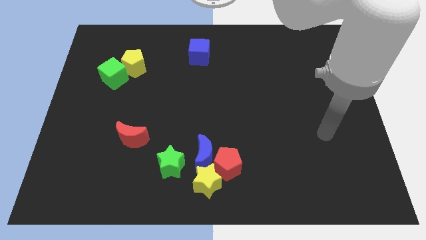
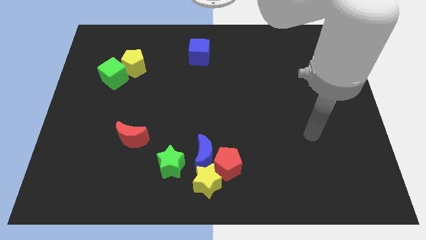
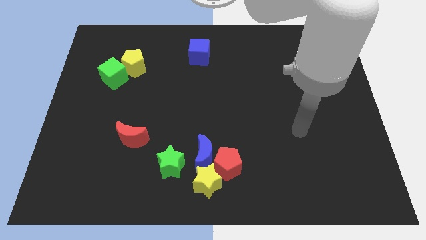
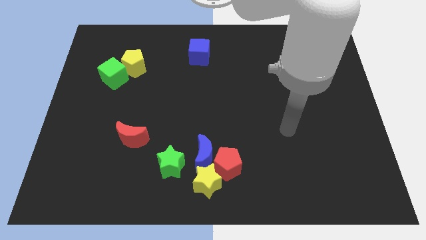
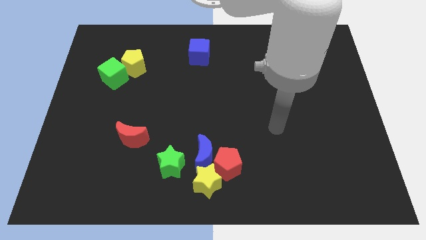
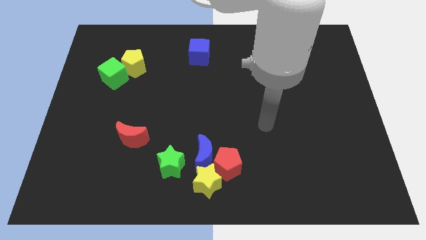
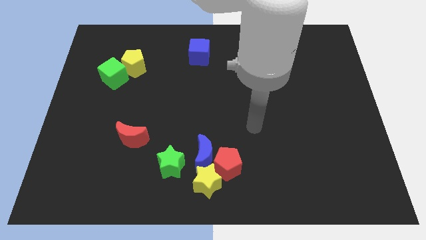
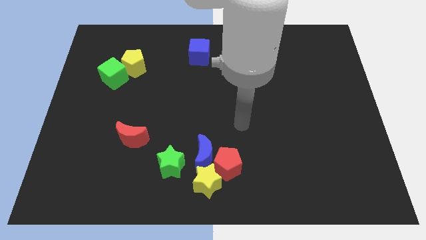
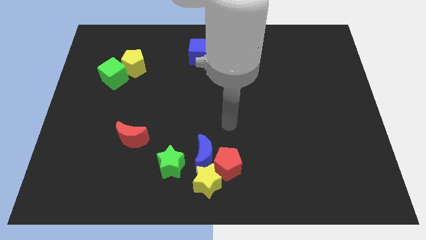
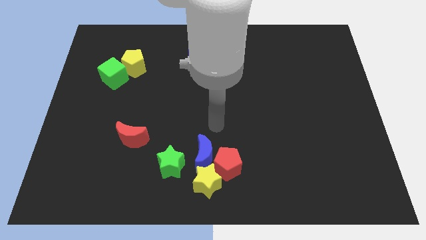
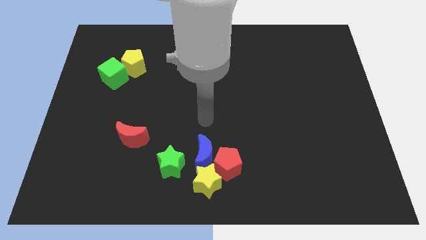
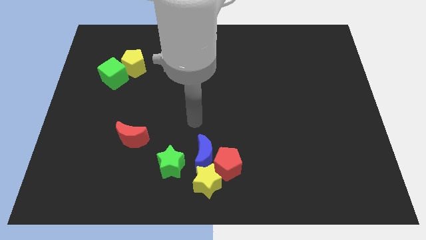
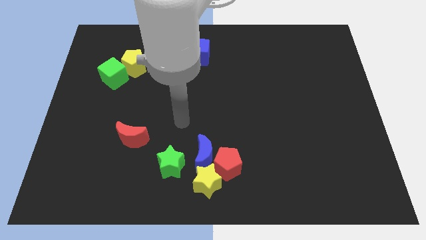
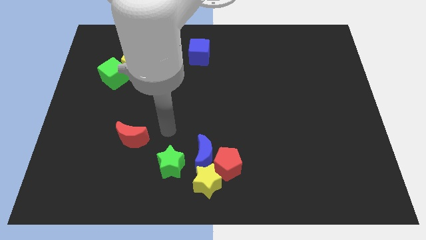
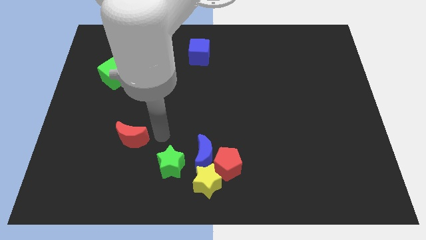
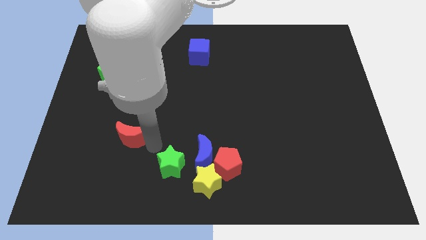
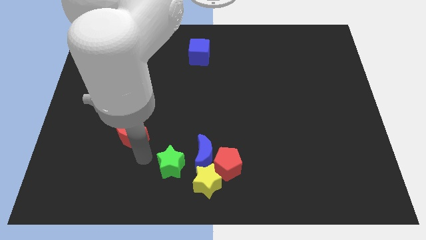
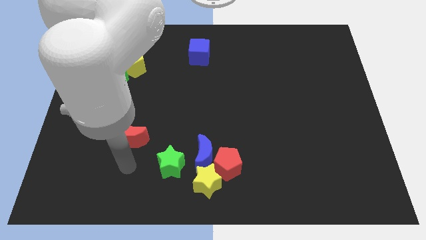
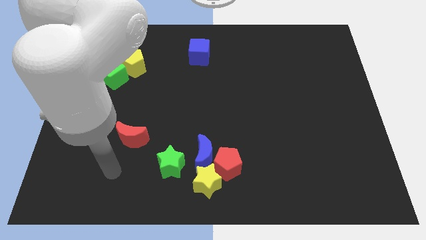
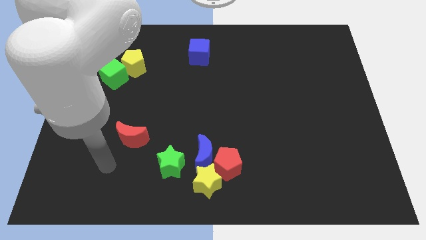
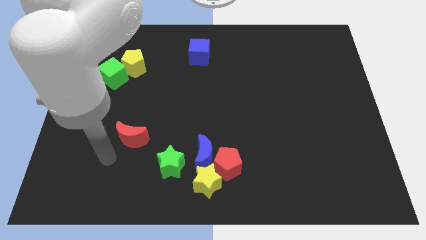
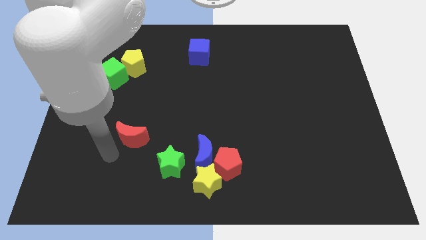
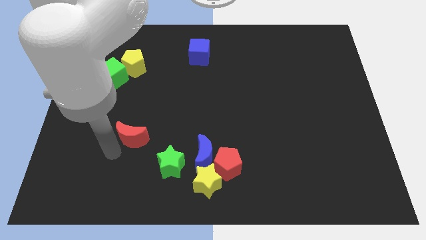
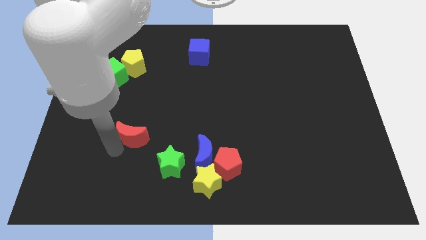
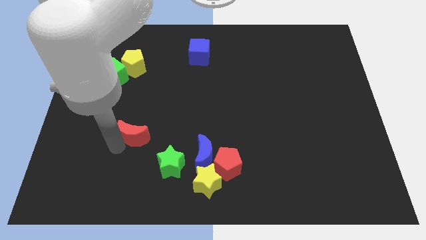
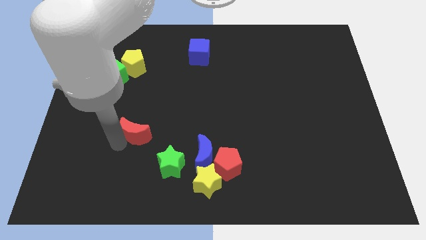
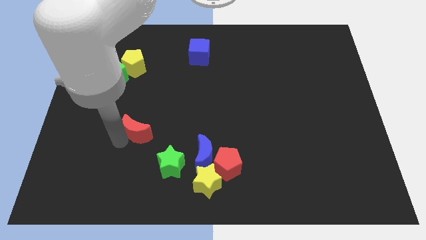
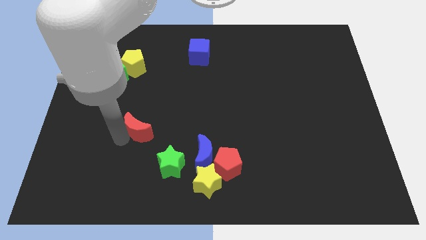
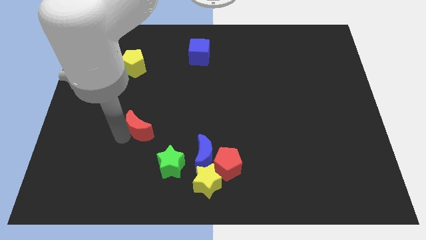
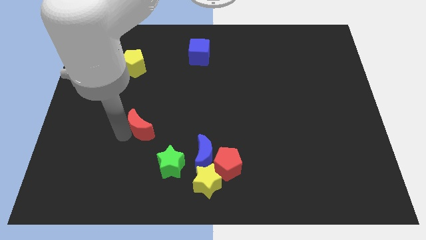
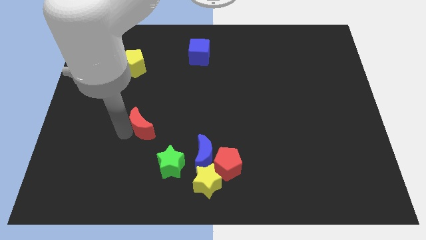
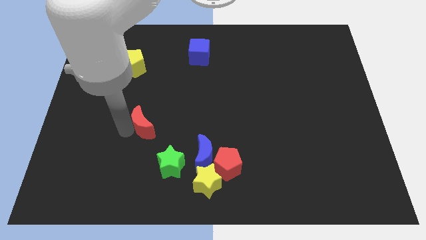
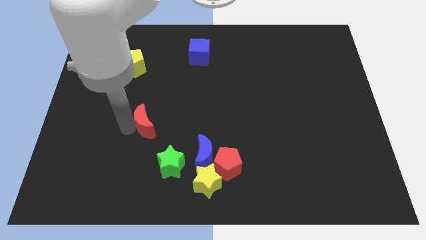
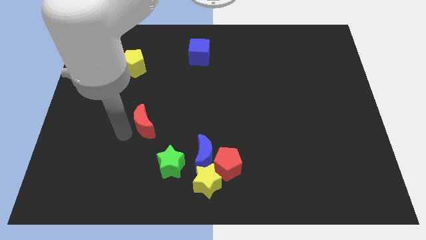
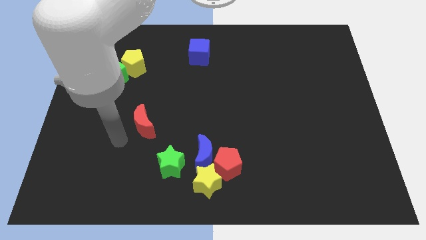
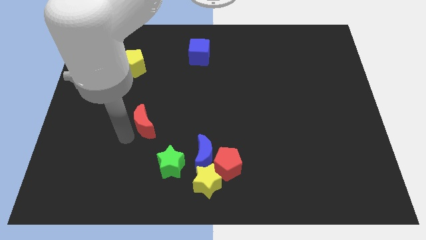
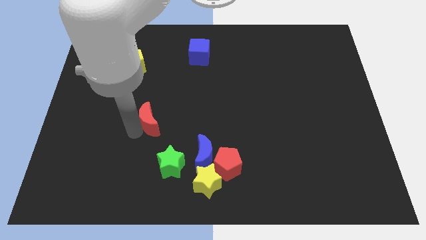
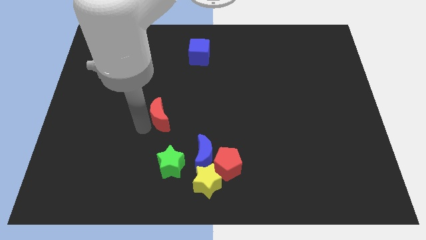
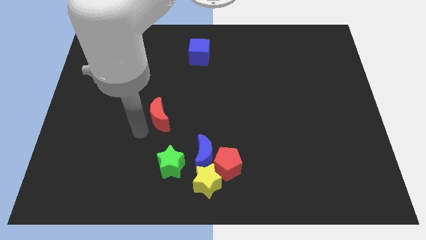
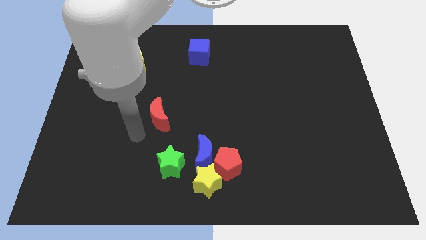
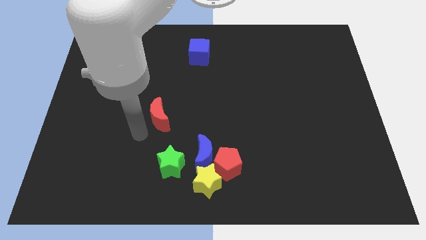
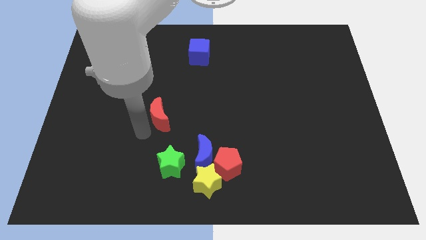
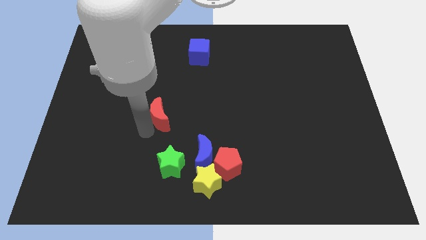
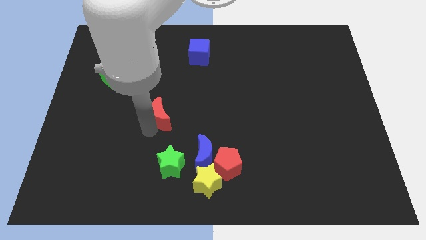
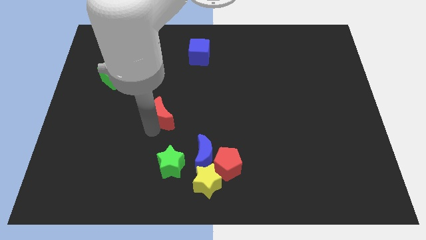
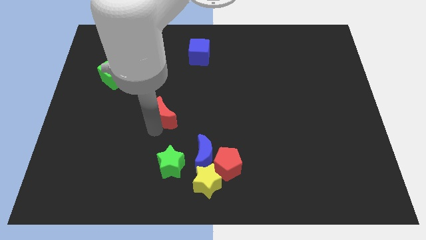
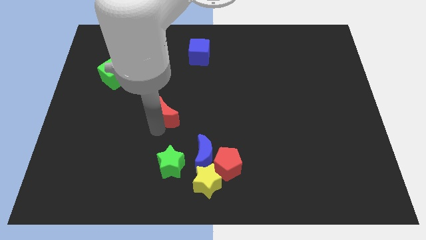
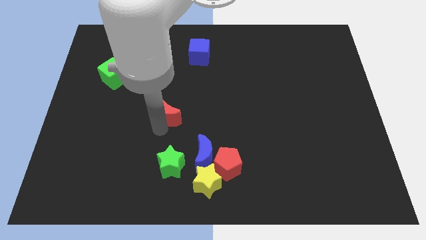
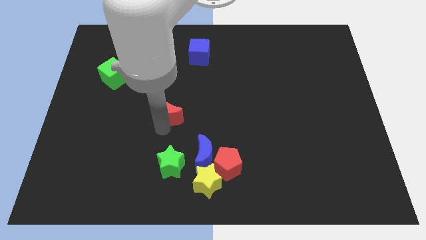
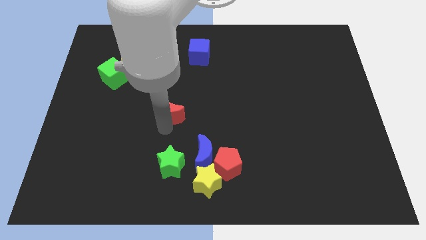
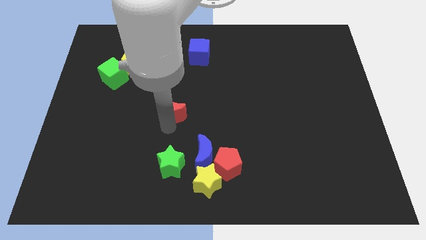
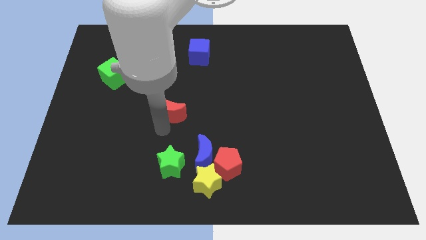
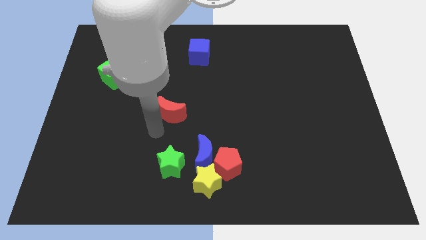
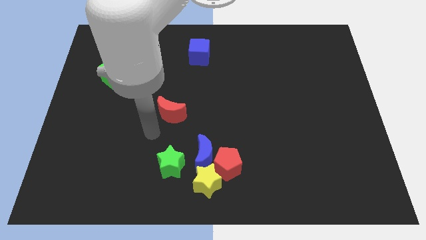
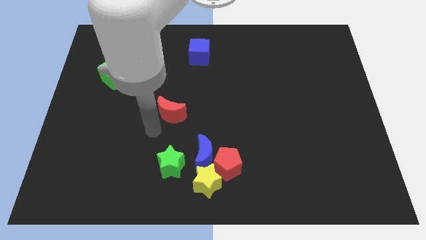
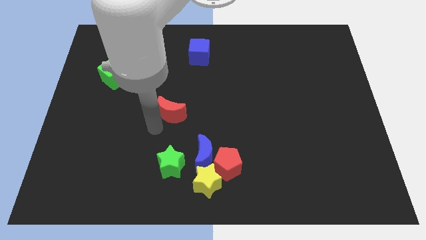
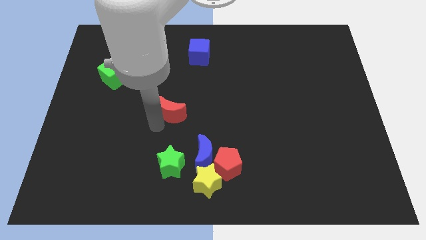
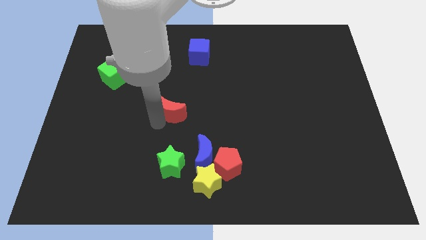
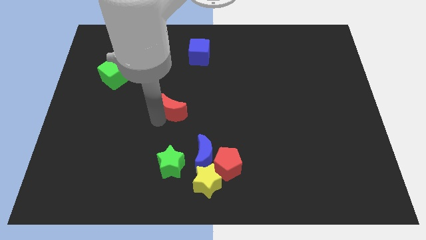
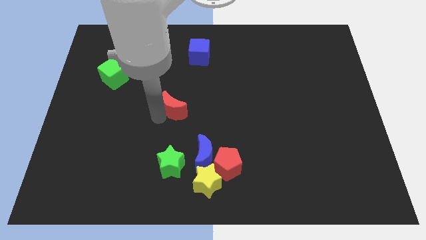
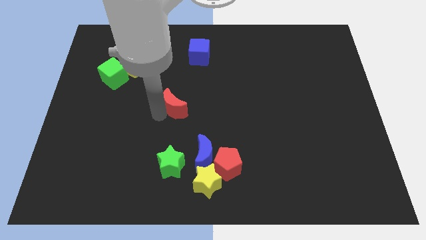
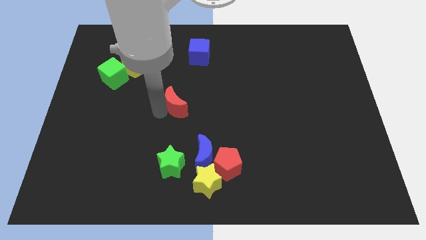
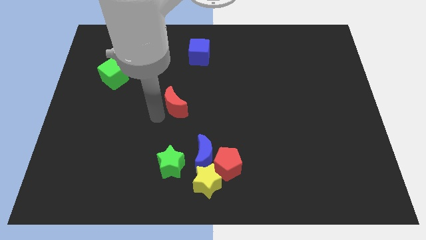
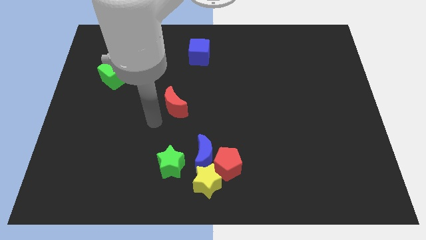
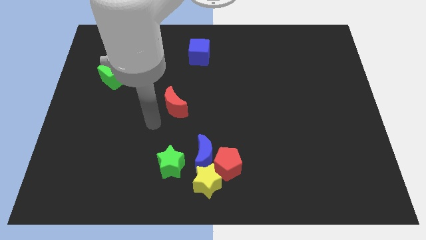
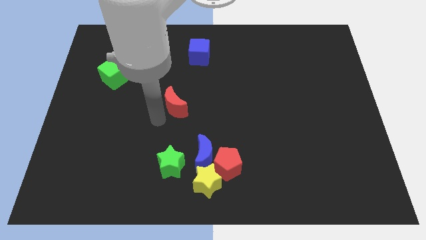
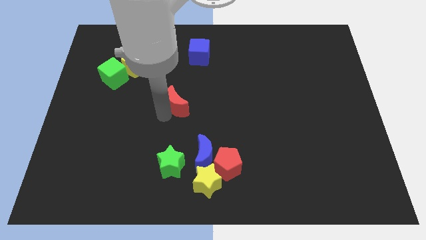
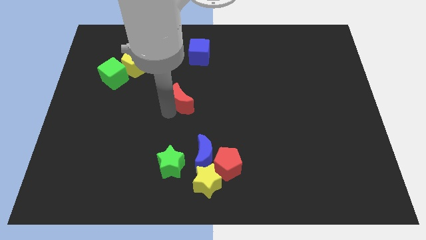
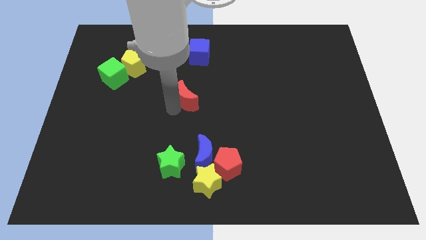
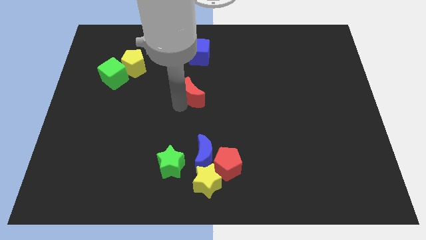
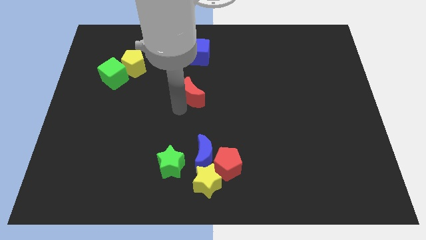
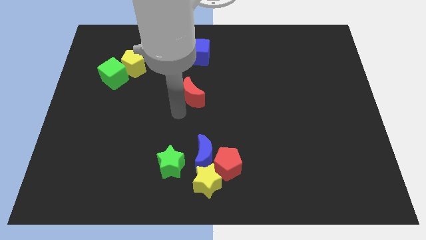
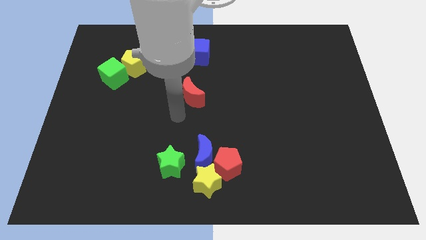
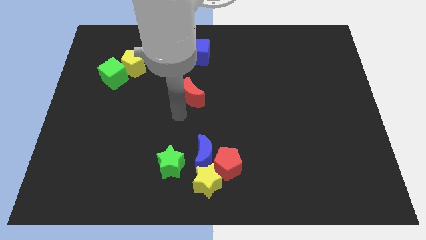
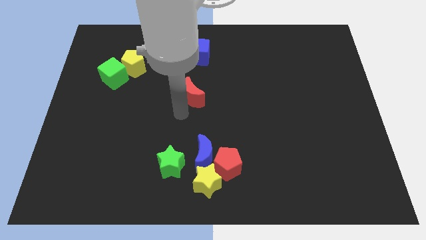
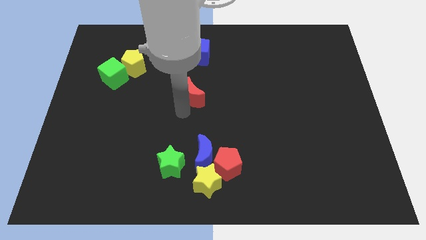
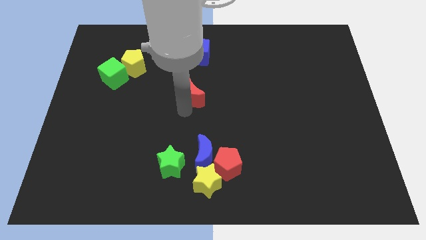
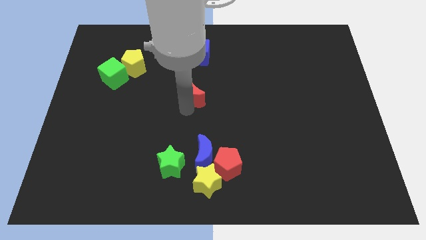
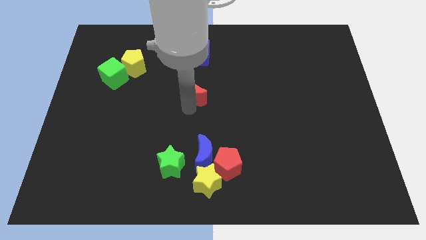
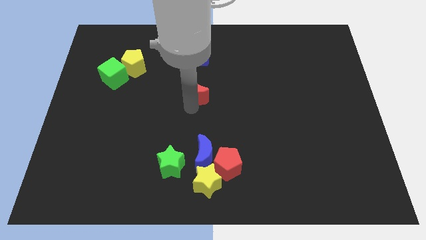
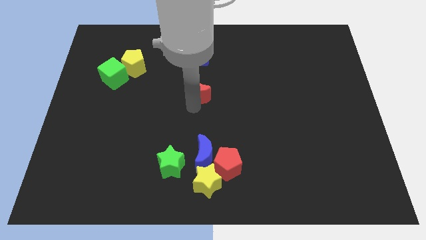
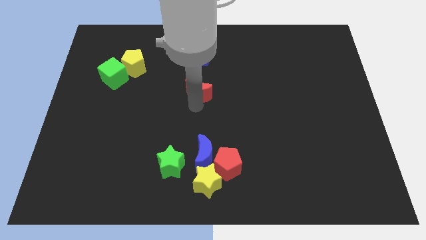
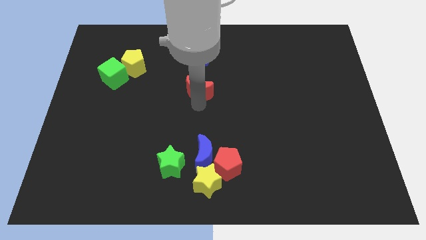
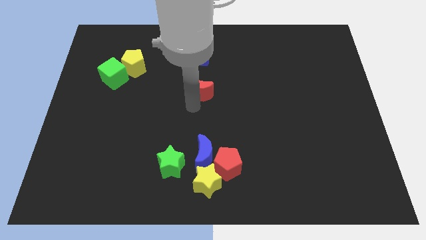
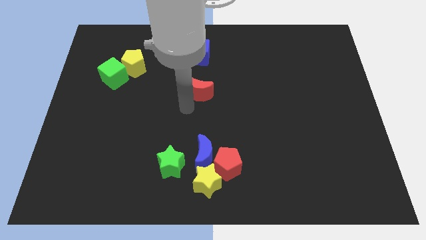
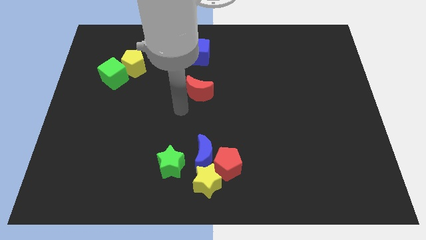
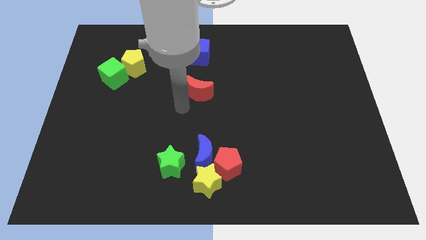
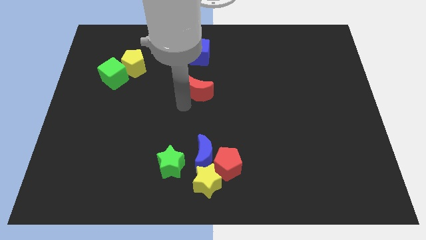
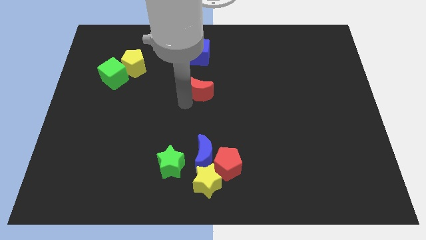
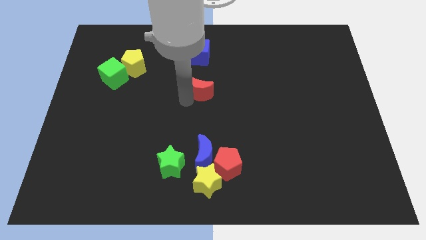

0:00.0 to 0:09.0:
slide the red moon up and right diagonally
